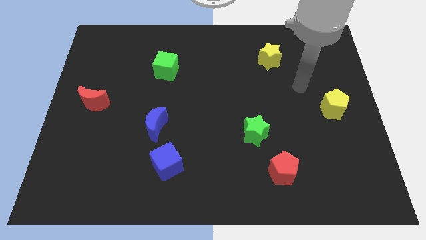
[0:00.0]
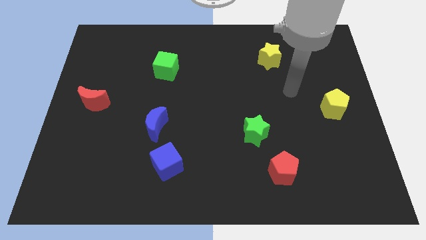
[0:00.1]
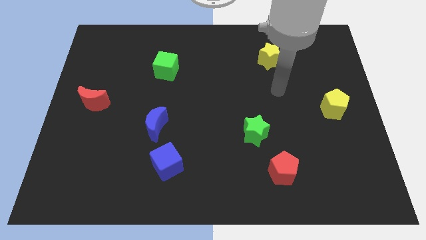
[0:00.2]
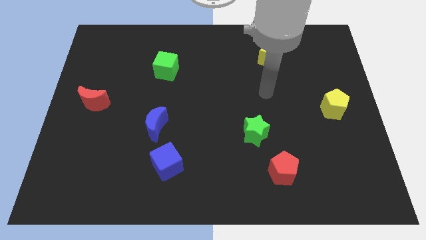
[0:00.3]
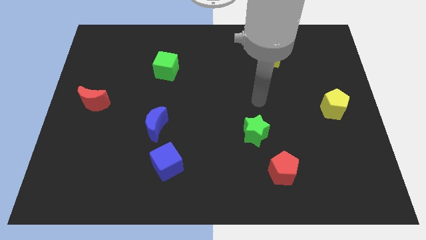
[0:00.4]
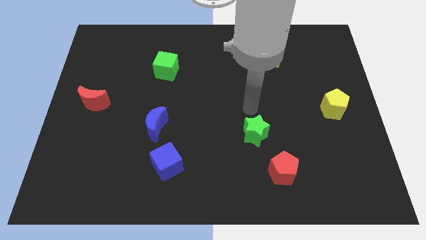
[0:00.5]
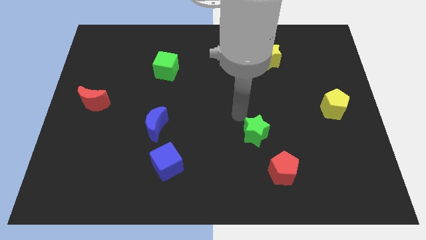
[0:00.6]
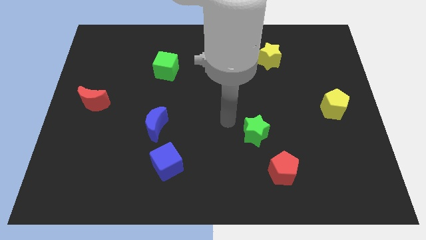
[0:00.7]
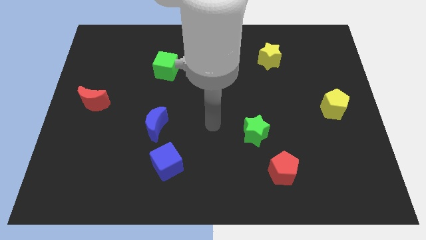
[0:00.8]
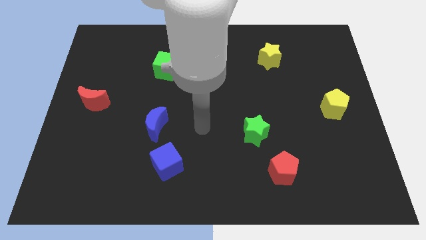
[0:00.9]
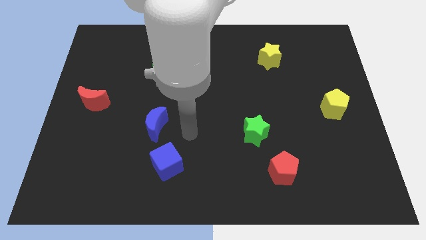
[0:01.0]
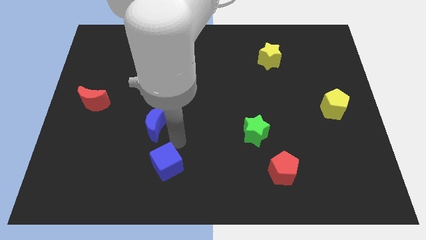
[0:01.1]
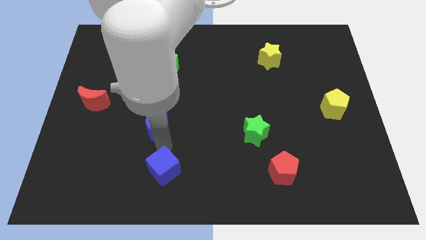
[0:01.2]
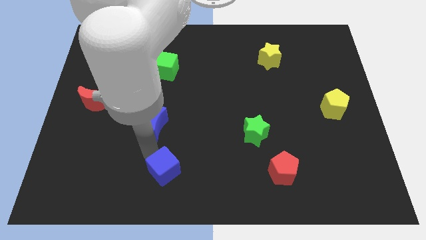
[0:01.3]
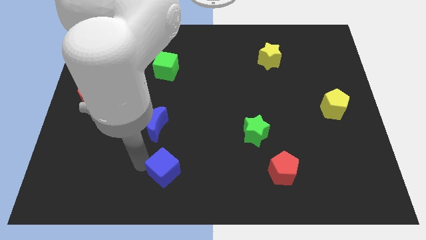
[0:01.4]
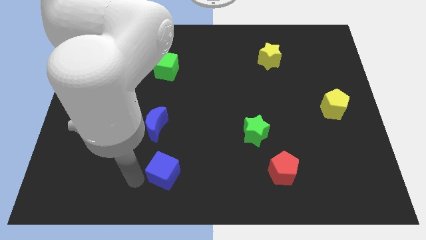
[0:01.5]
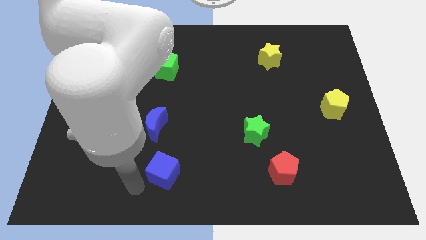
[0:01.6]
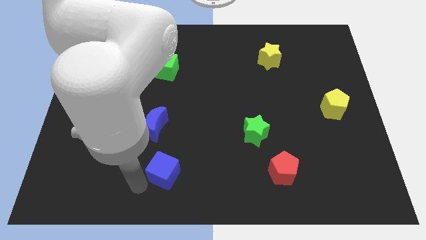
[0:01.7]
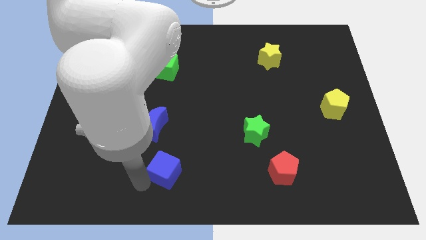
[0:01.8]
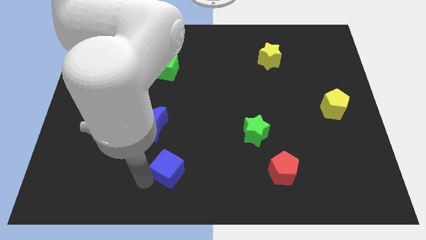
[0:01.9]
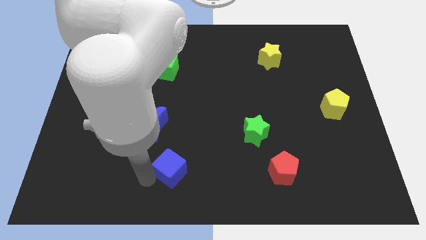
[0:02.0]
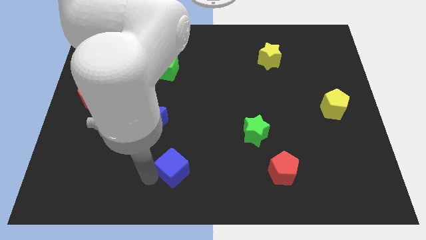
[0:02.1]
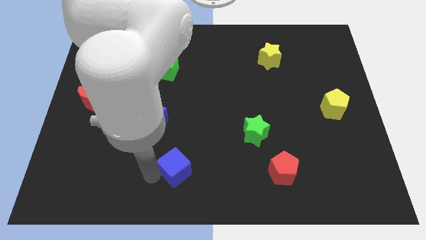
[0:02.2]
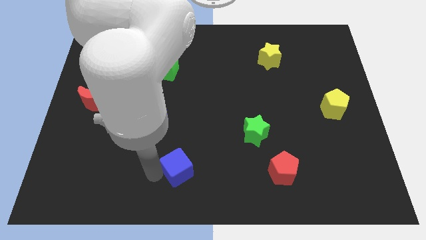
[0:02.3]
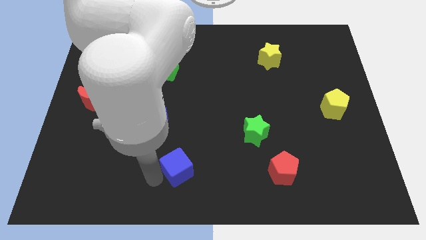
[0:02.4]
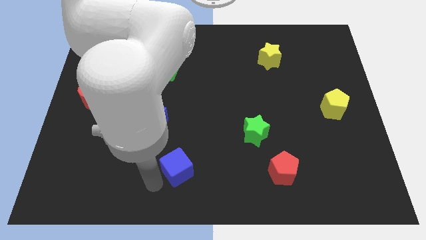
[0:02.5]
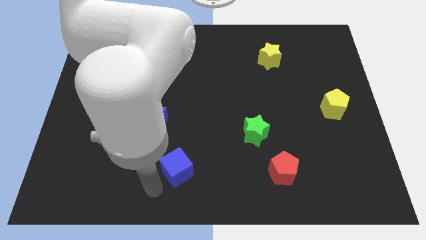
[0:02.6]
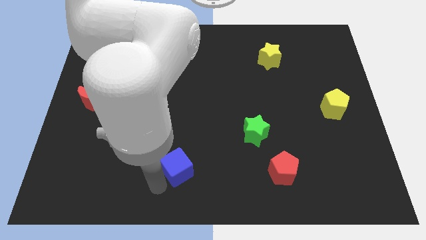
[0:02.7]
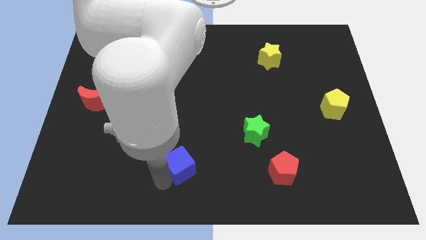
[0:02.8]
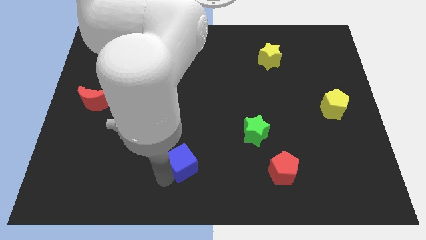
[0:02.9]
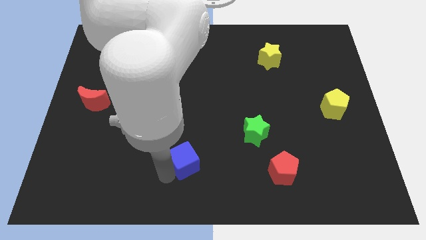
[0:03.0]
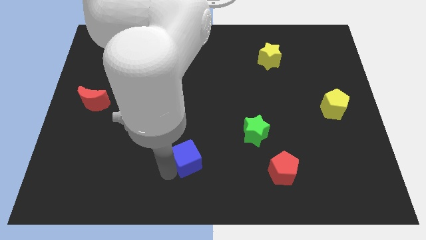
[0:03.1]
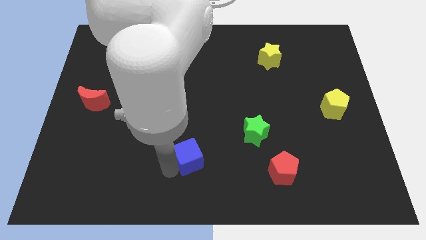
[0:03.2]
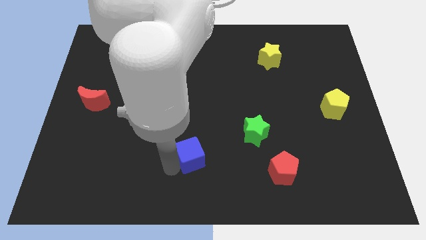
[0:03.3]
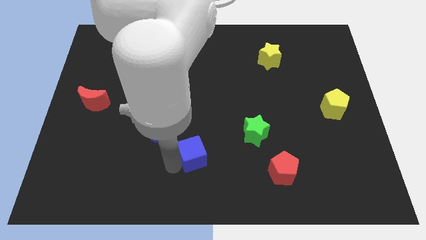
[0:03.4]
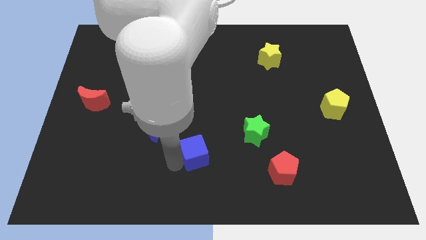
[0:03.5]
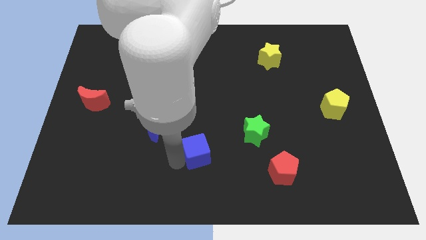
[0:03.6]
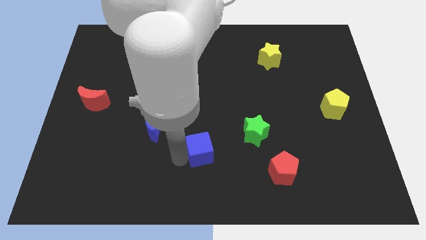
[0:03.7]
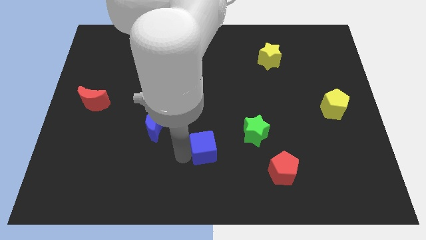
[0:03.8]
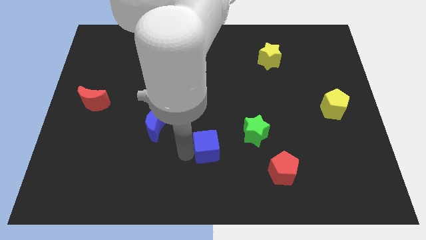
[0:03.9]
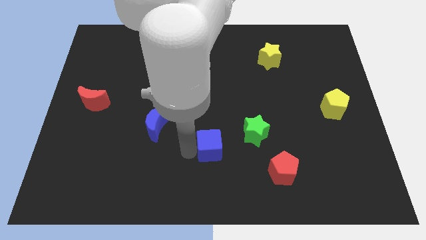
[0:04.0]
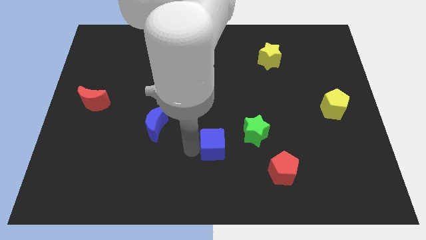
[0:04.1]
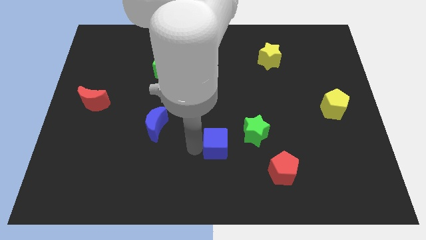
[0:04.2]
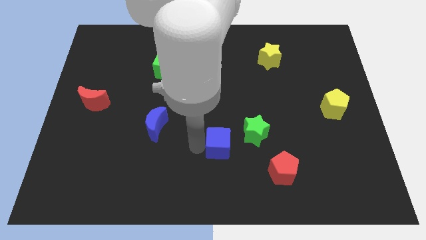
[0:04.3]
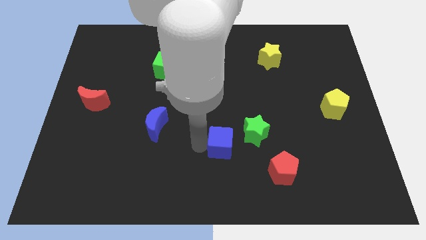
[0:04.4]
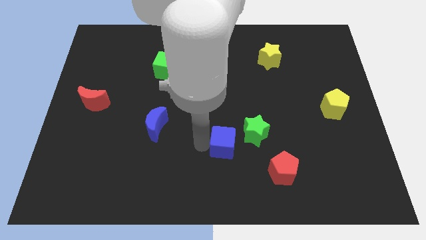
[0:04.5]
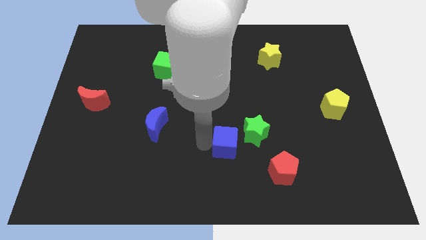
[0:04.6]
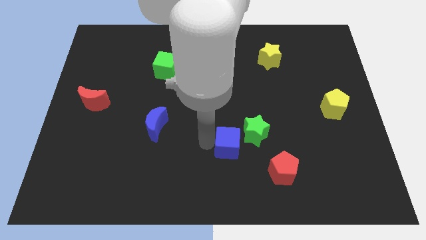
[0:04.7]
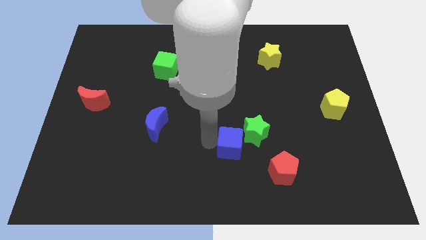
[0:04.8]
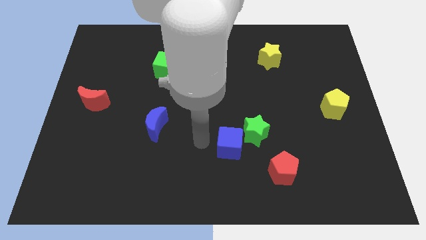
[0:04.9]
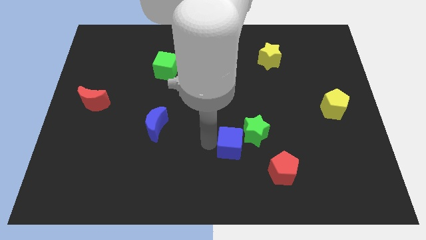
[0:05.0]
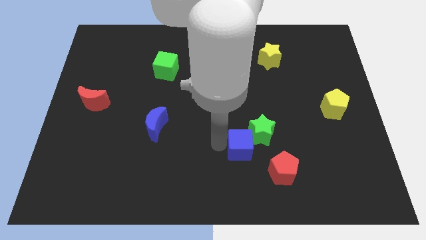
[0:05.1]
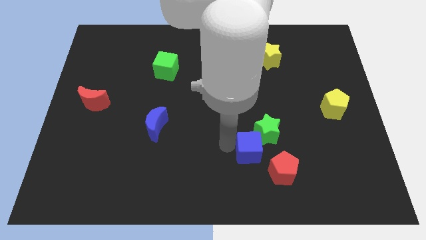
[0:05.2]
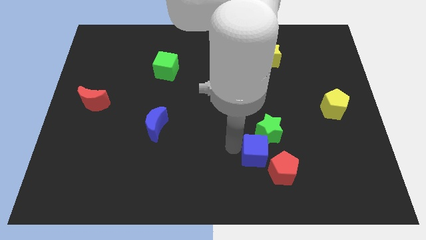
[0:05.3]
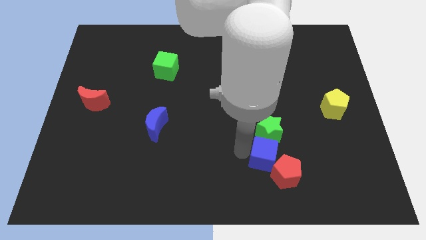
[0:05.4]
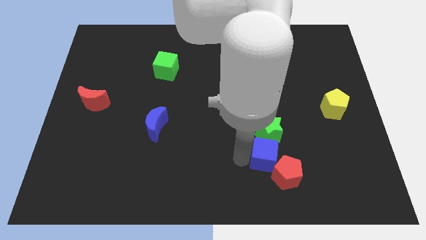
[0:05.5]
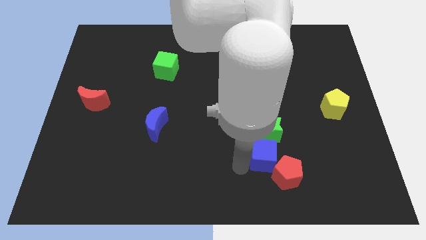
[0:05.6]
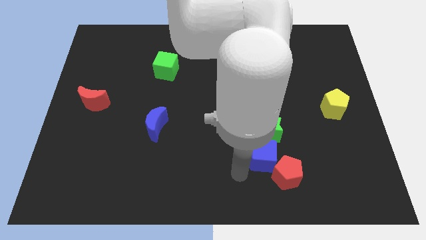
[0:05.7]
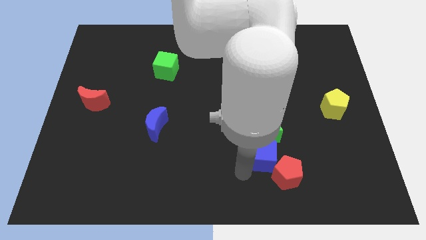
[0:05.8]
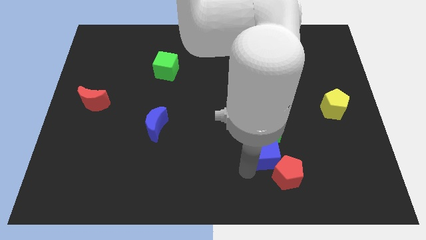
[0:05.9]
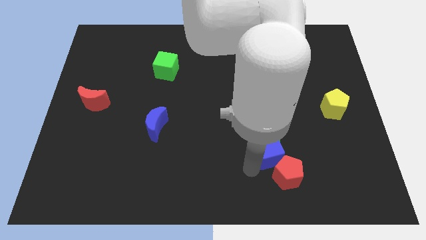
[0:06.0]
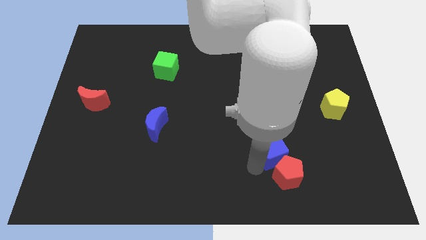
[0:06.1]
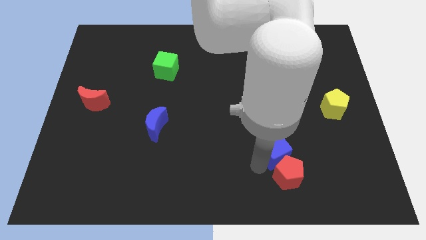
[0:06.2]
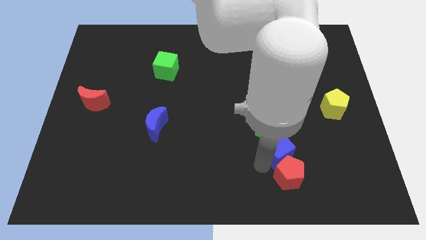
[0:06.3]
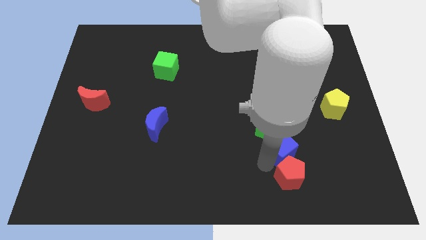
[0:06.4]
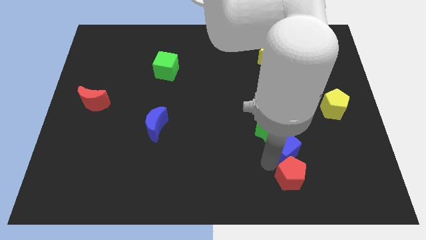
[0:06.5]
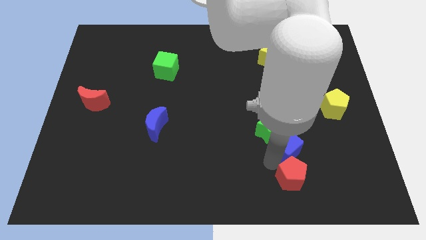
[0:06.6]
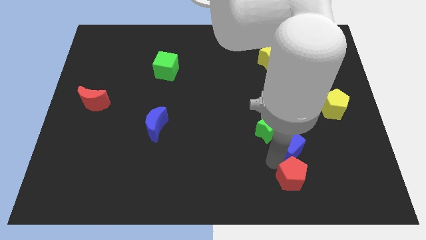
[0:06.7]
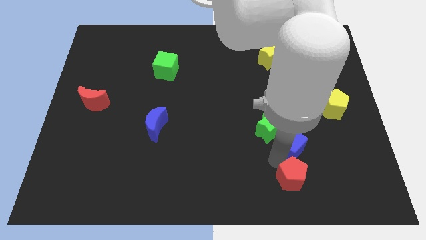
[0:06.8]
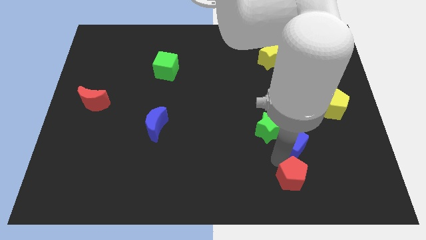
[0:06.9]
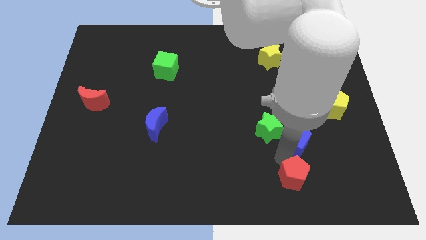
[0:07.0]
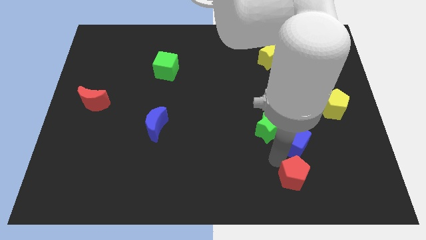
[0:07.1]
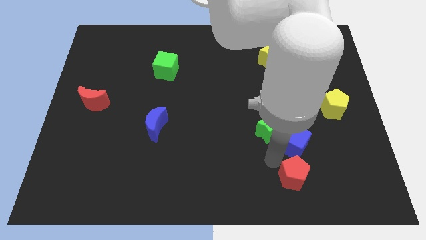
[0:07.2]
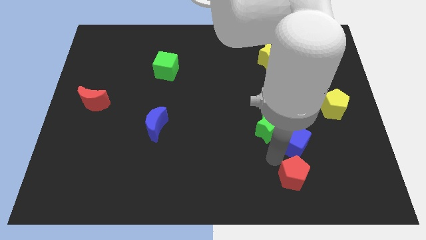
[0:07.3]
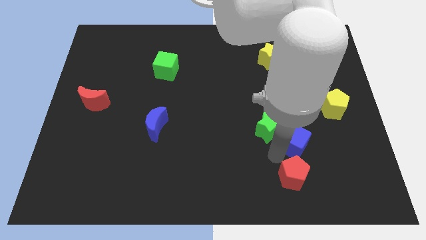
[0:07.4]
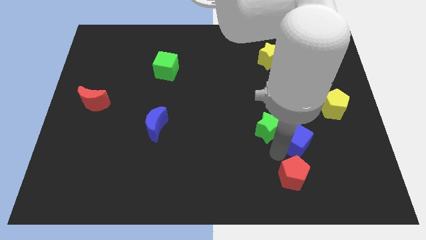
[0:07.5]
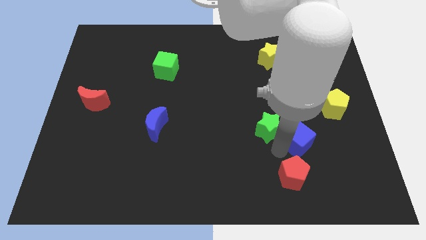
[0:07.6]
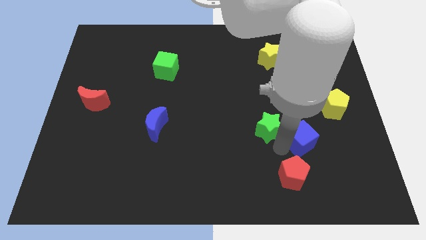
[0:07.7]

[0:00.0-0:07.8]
slide the blue cube to the bottom left side of the yellow pentagon
